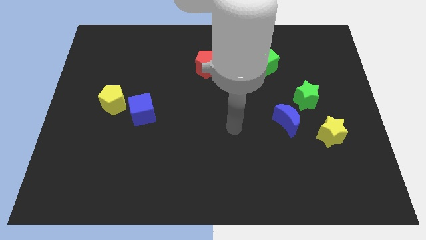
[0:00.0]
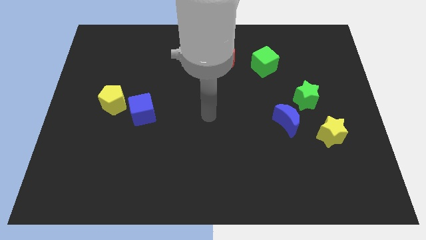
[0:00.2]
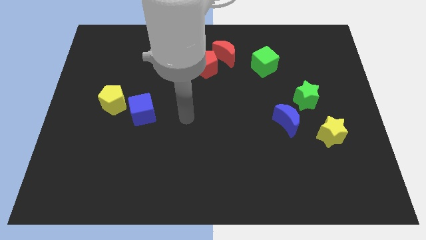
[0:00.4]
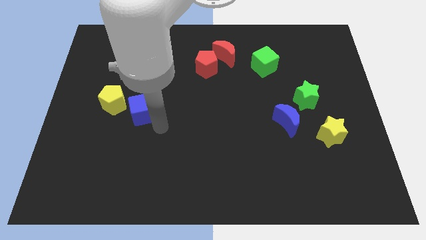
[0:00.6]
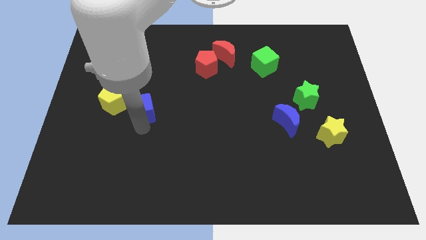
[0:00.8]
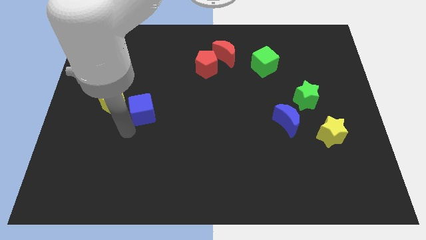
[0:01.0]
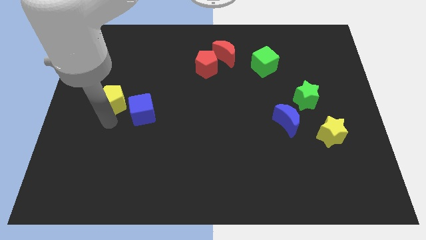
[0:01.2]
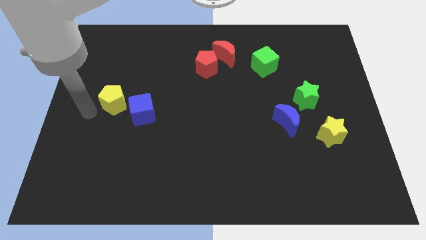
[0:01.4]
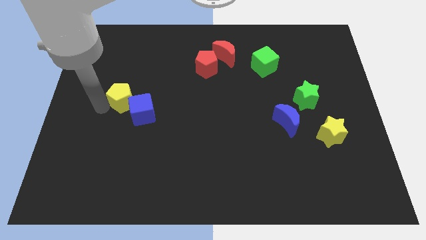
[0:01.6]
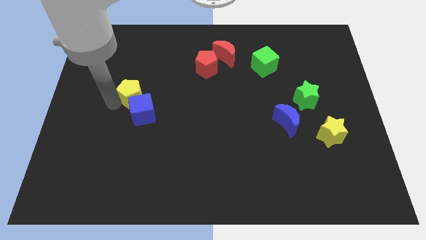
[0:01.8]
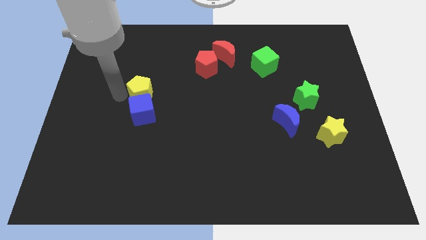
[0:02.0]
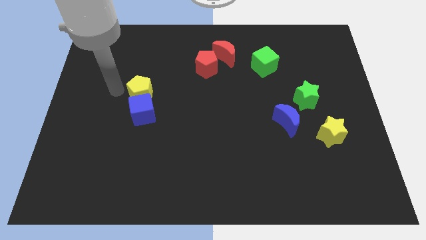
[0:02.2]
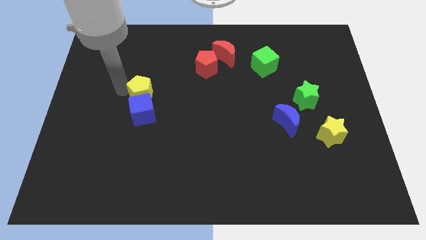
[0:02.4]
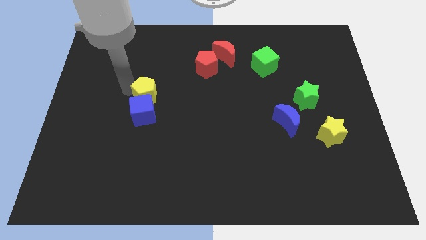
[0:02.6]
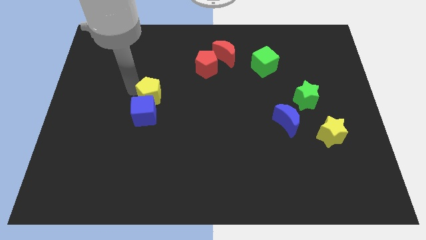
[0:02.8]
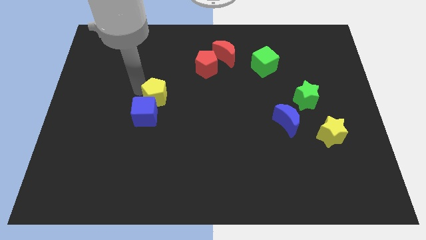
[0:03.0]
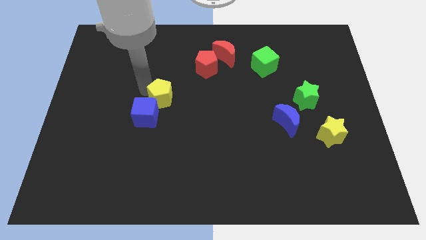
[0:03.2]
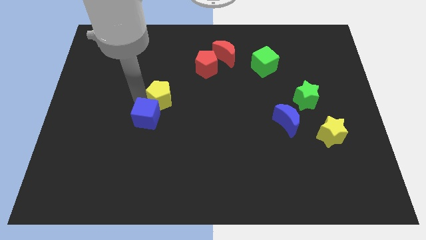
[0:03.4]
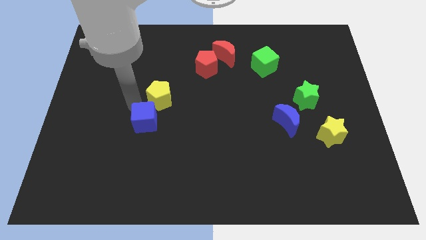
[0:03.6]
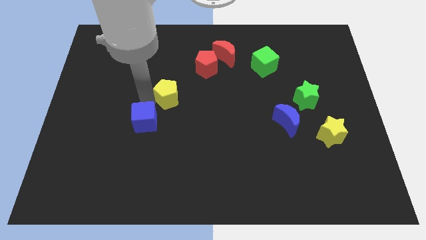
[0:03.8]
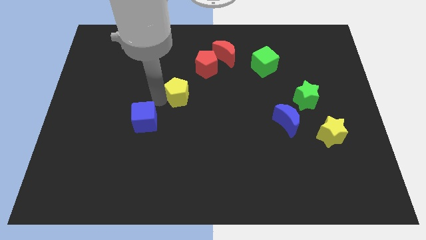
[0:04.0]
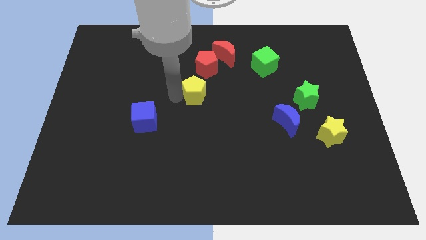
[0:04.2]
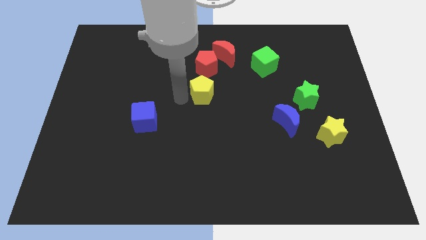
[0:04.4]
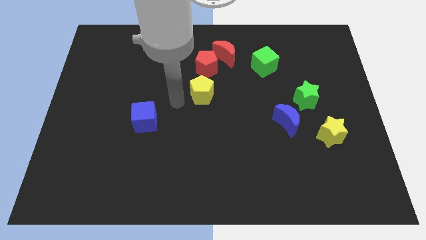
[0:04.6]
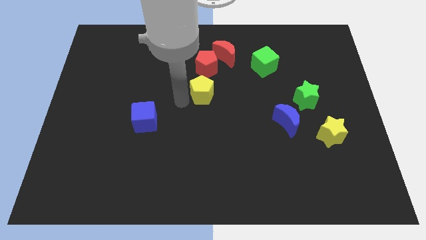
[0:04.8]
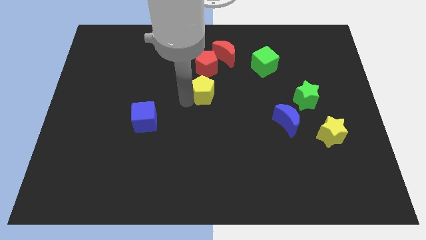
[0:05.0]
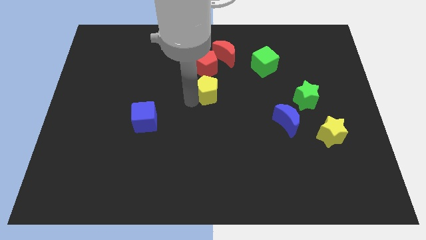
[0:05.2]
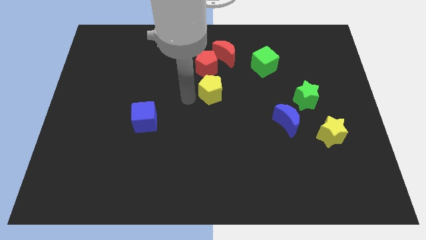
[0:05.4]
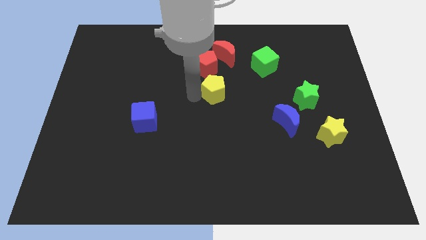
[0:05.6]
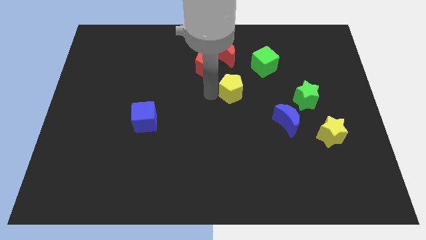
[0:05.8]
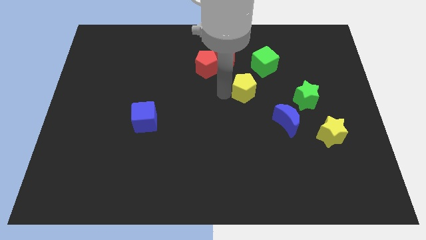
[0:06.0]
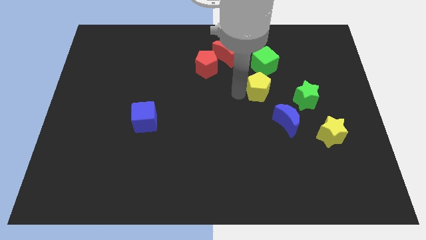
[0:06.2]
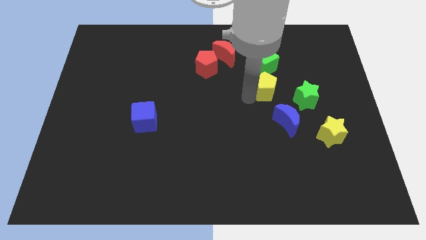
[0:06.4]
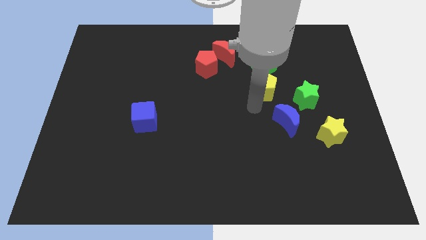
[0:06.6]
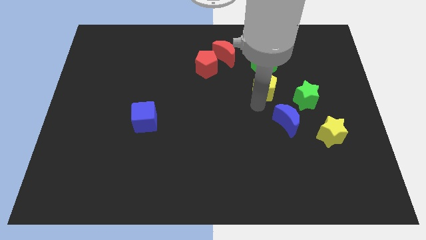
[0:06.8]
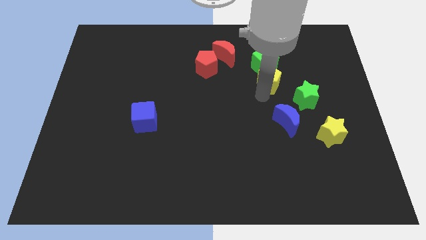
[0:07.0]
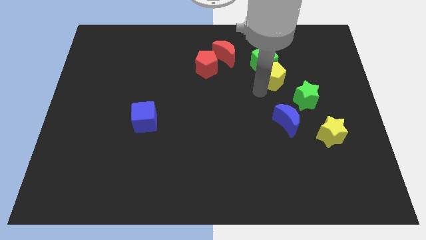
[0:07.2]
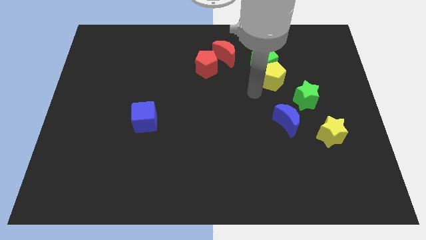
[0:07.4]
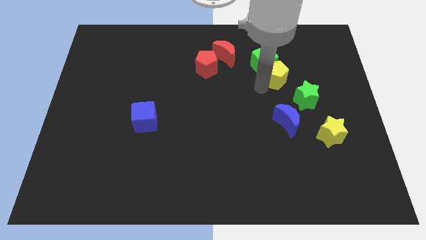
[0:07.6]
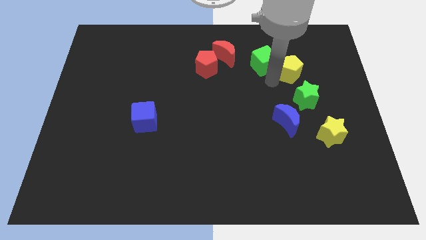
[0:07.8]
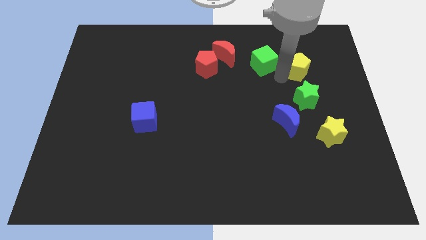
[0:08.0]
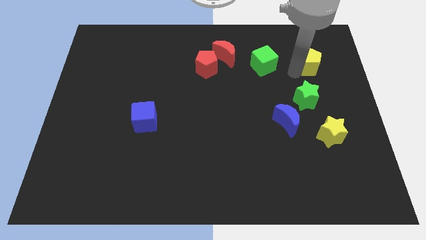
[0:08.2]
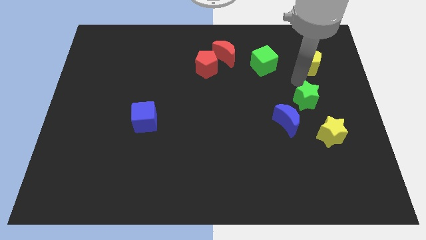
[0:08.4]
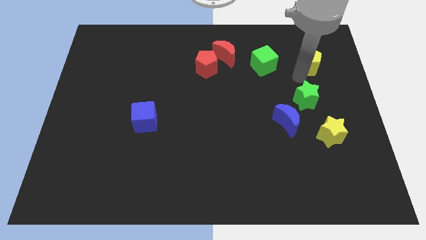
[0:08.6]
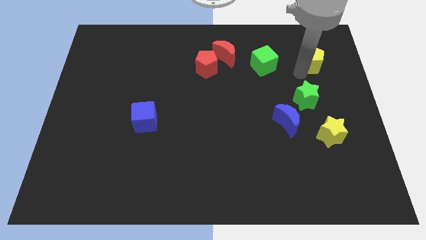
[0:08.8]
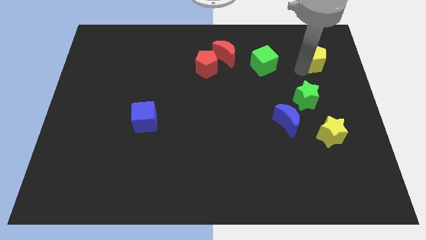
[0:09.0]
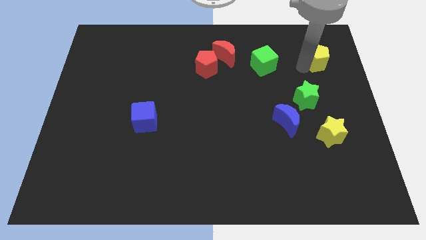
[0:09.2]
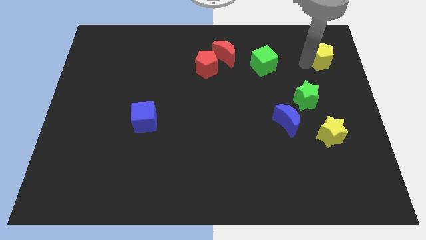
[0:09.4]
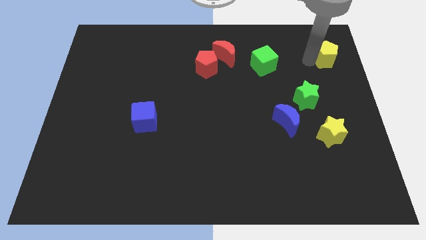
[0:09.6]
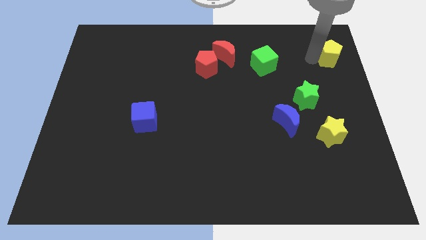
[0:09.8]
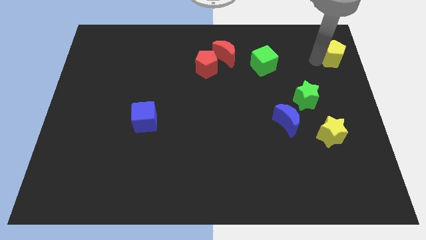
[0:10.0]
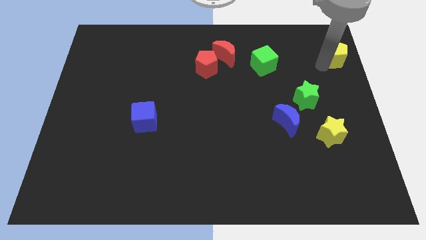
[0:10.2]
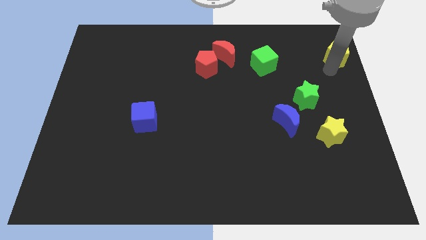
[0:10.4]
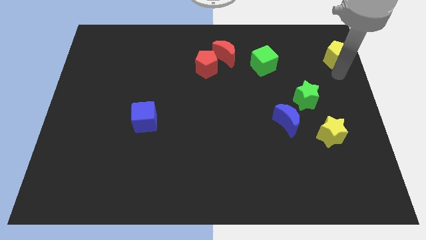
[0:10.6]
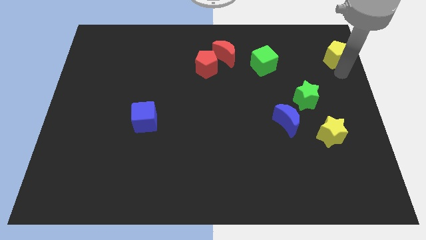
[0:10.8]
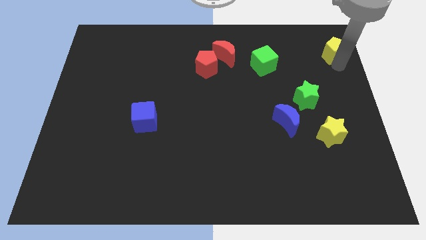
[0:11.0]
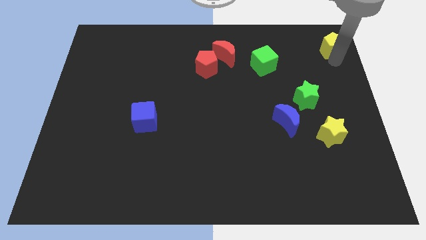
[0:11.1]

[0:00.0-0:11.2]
put the yellow pentagon to the top right
